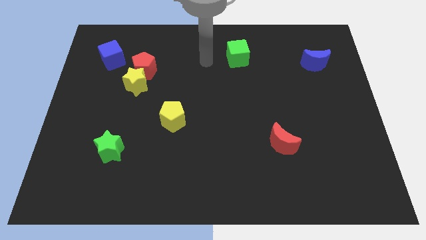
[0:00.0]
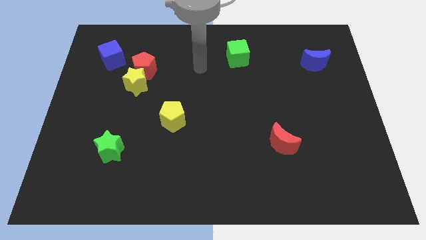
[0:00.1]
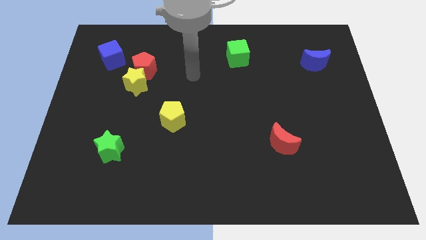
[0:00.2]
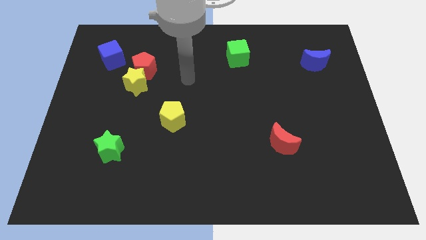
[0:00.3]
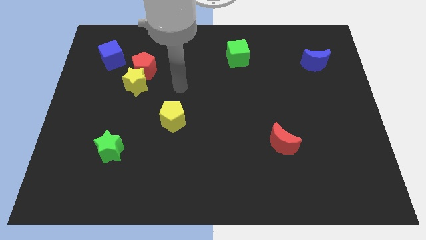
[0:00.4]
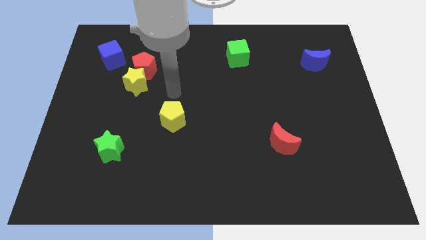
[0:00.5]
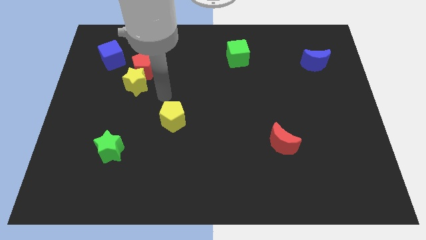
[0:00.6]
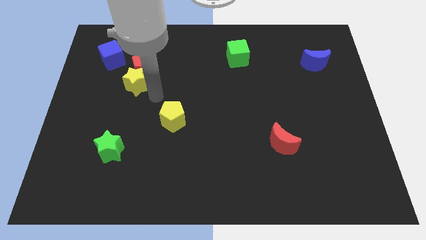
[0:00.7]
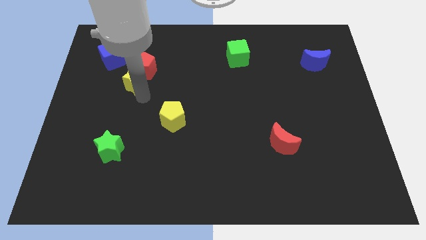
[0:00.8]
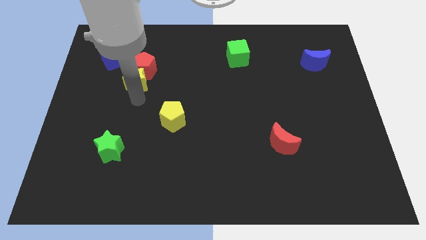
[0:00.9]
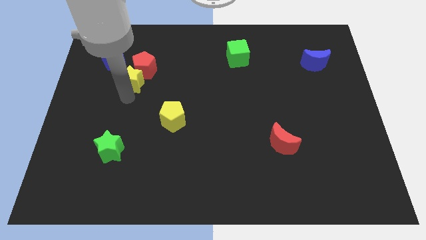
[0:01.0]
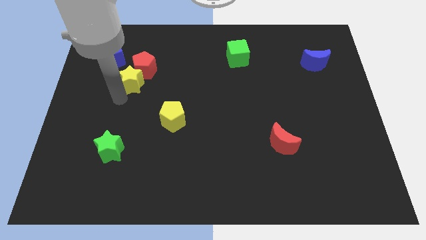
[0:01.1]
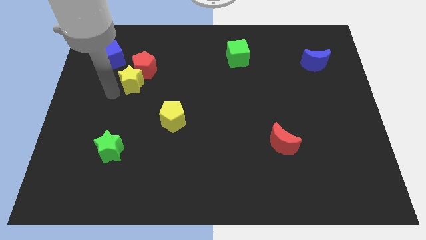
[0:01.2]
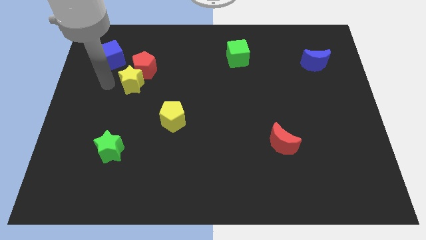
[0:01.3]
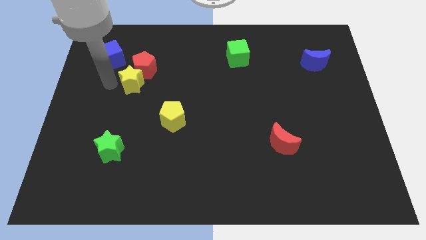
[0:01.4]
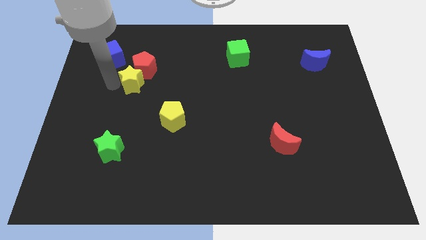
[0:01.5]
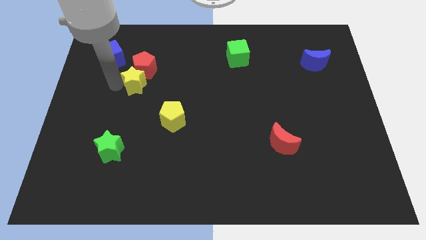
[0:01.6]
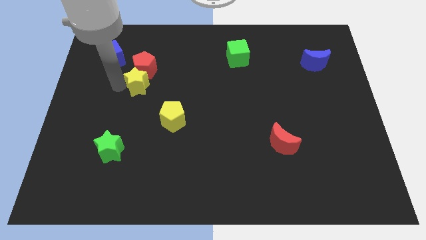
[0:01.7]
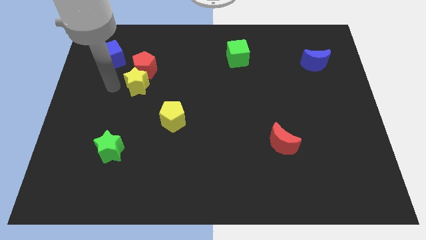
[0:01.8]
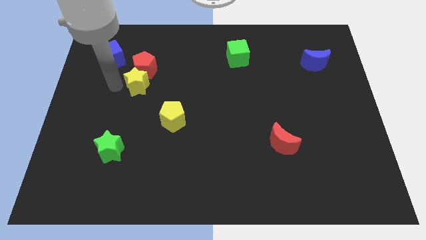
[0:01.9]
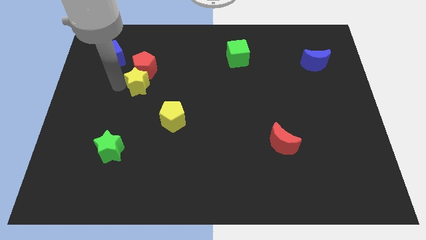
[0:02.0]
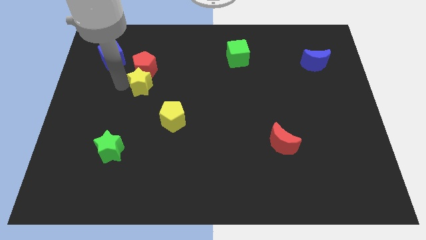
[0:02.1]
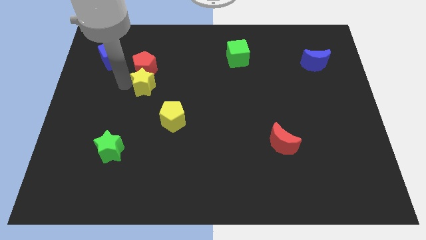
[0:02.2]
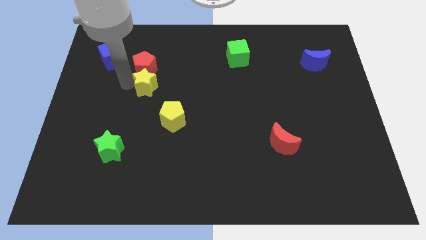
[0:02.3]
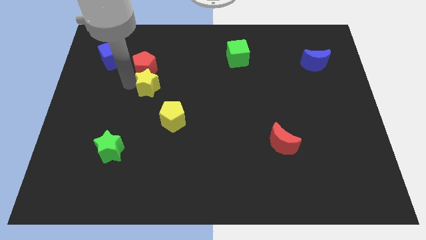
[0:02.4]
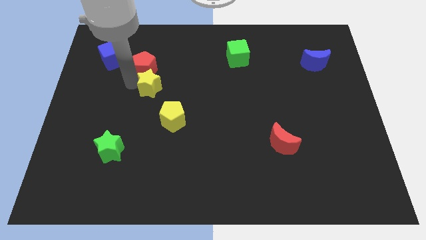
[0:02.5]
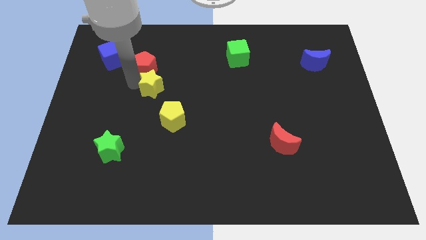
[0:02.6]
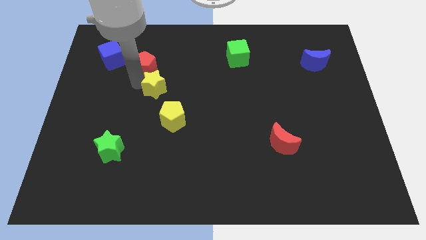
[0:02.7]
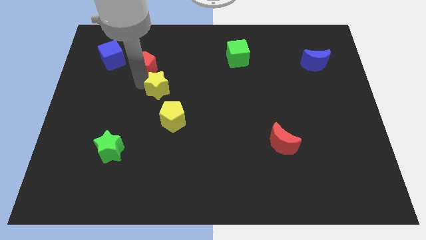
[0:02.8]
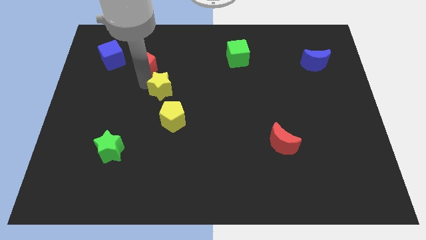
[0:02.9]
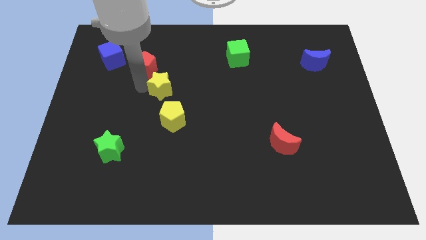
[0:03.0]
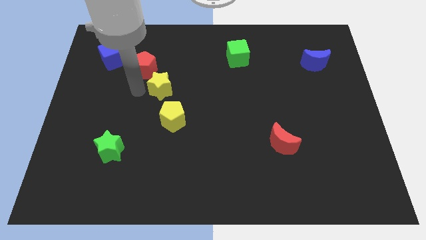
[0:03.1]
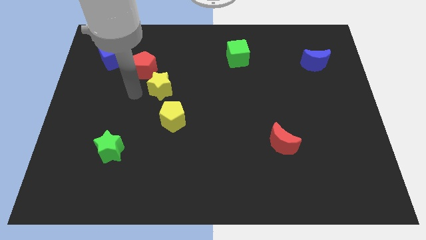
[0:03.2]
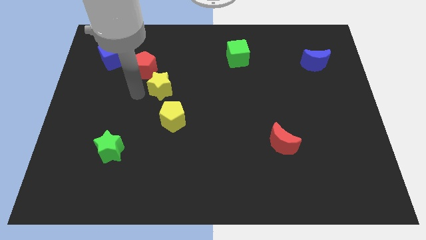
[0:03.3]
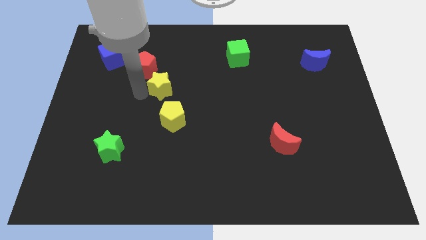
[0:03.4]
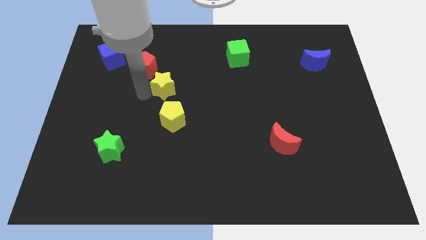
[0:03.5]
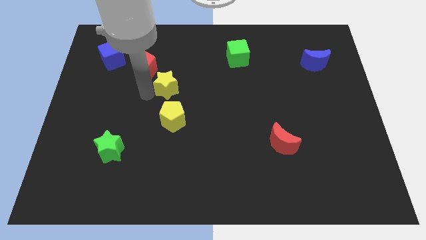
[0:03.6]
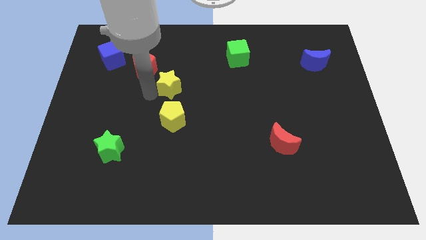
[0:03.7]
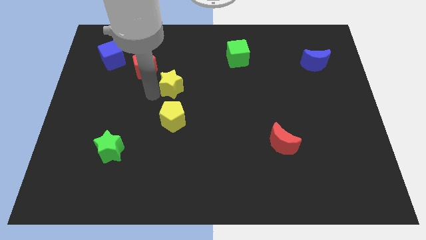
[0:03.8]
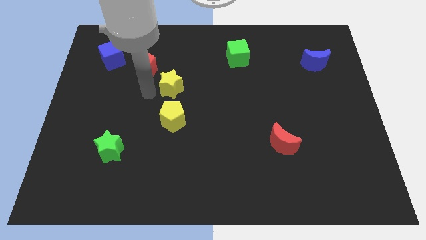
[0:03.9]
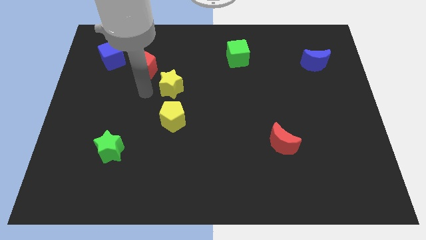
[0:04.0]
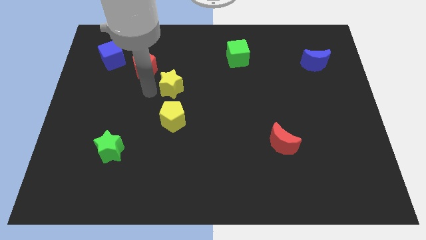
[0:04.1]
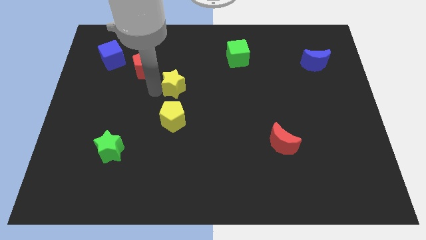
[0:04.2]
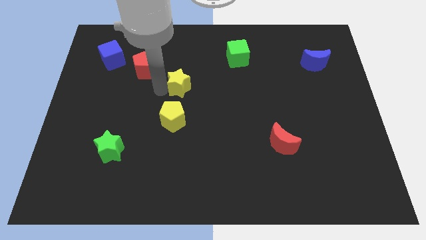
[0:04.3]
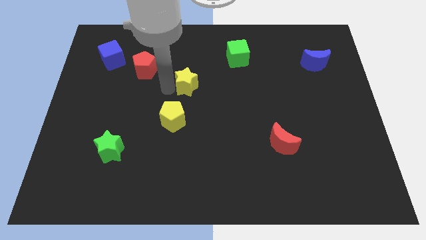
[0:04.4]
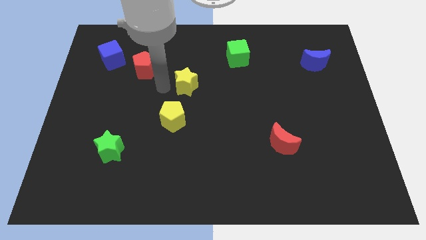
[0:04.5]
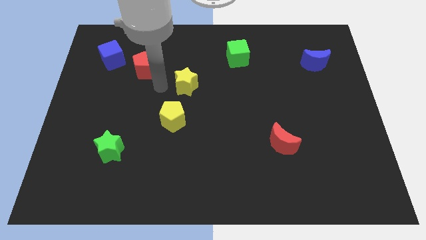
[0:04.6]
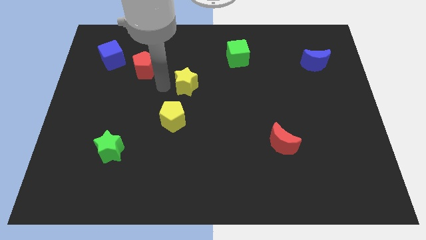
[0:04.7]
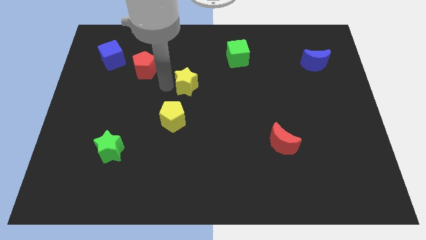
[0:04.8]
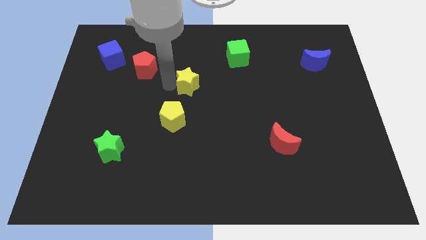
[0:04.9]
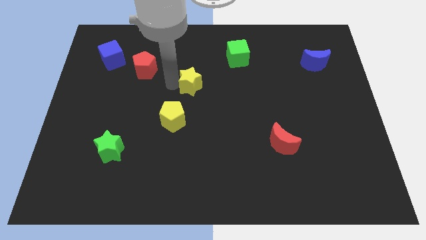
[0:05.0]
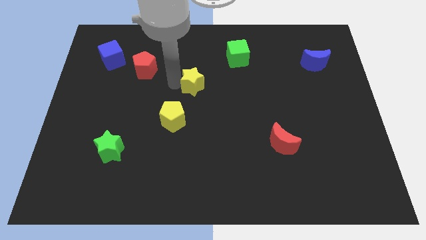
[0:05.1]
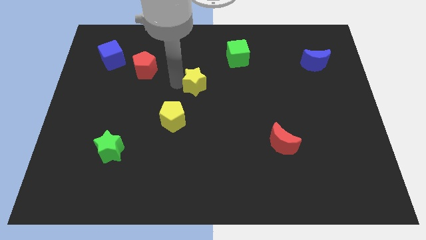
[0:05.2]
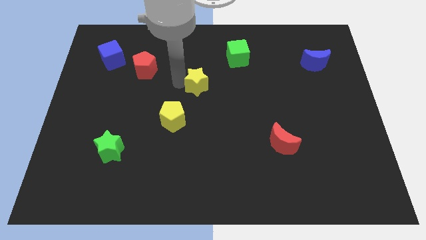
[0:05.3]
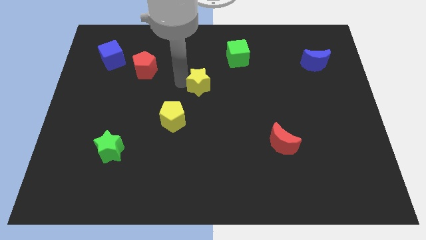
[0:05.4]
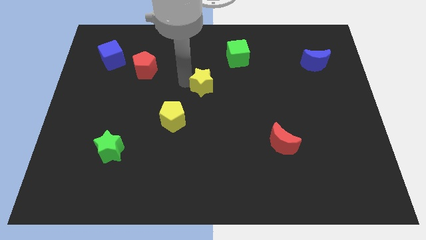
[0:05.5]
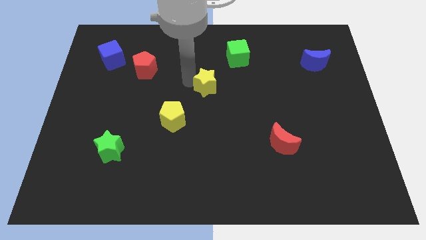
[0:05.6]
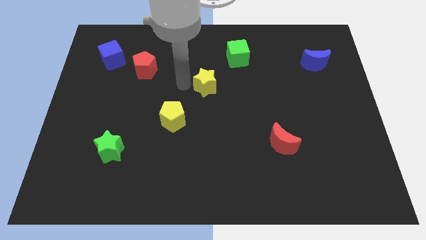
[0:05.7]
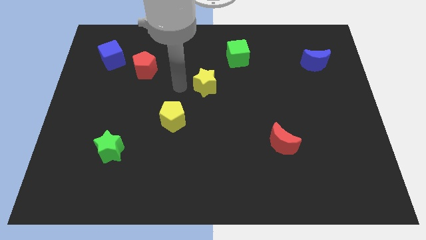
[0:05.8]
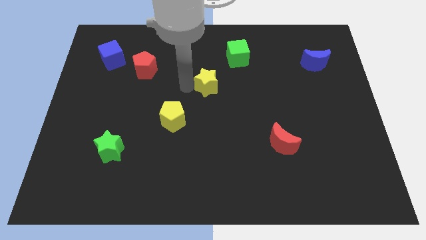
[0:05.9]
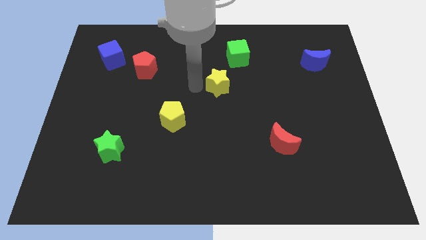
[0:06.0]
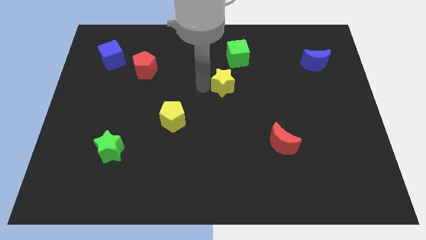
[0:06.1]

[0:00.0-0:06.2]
move the yellow star to the bottom side of the green cube
